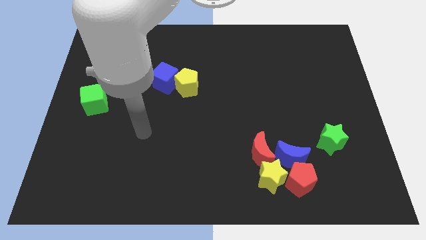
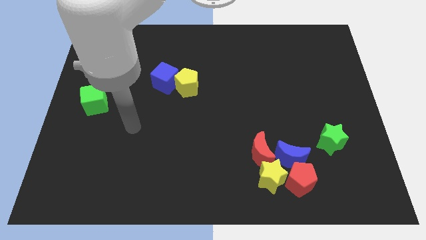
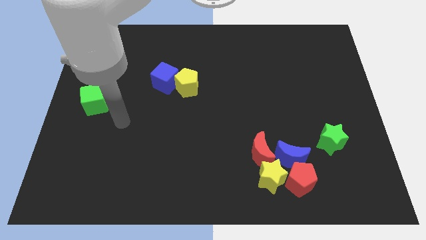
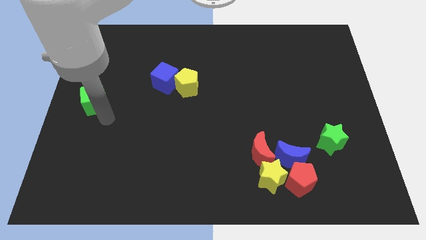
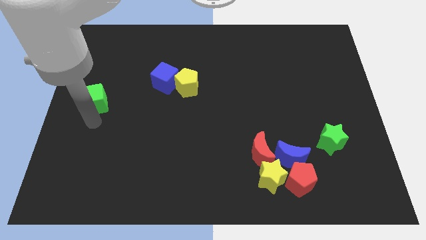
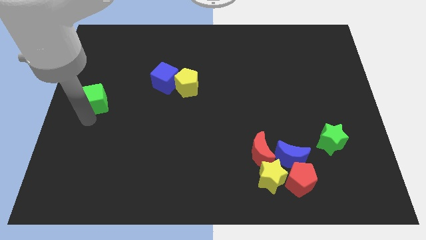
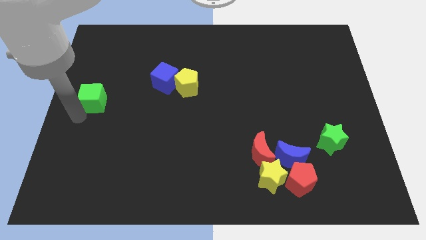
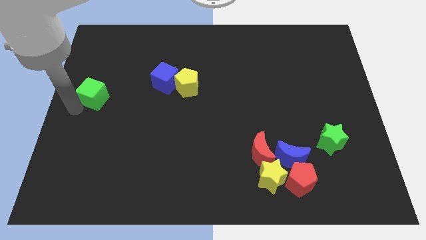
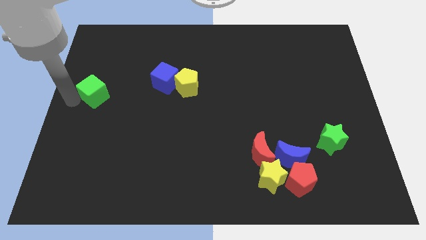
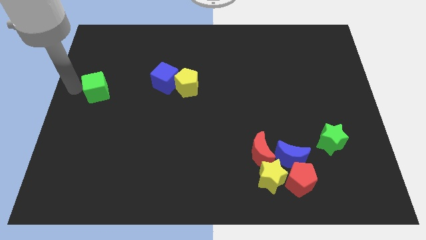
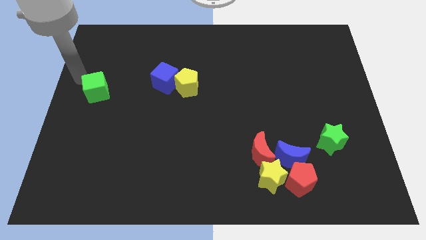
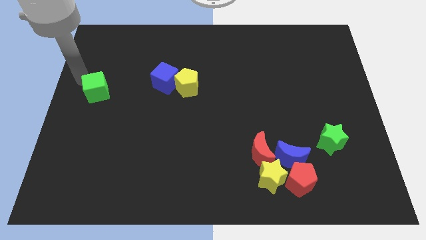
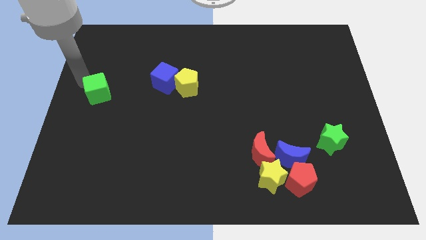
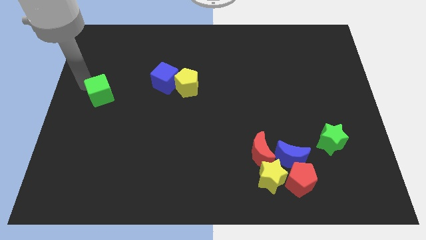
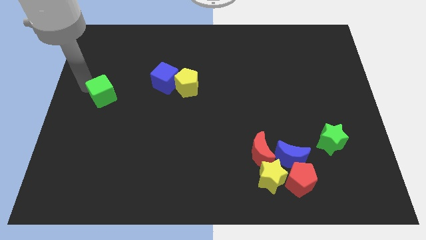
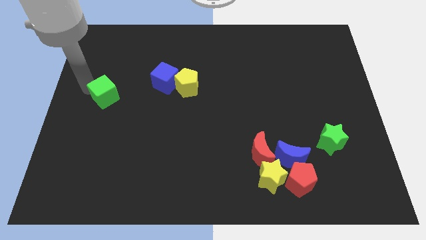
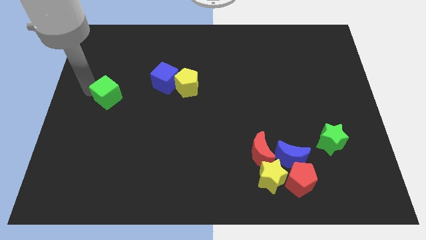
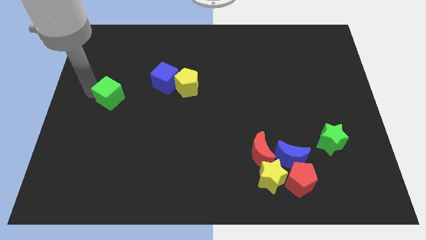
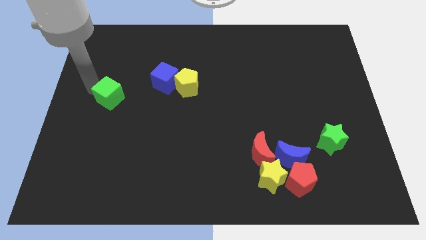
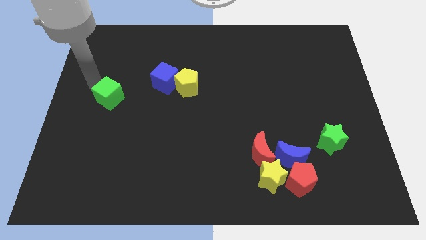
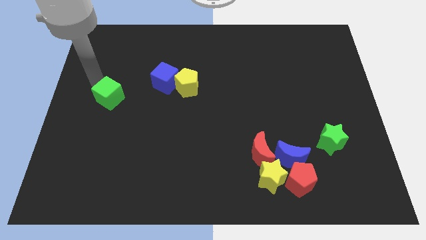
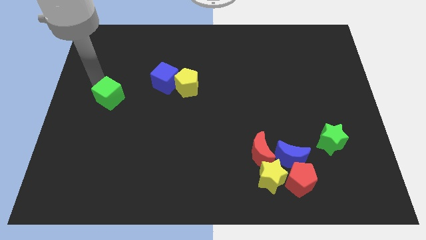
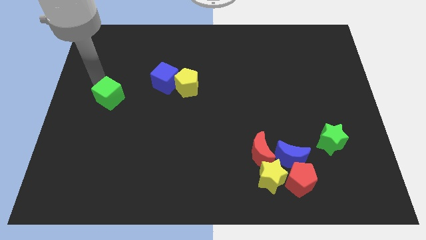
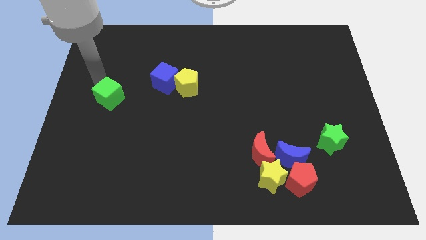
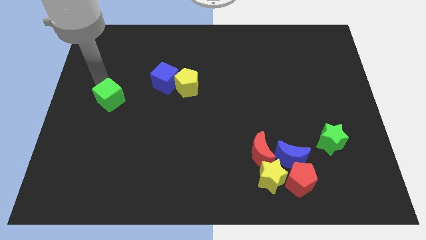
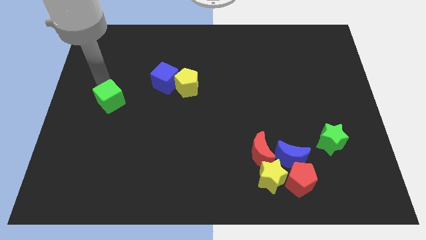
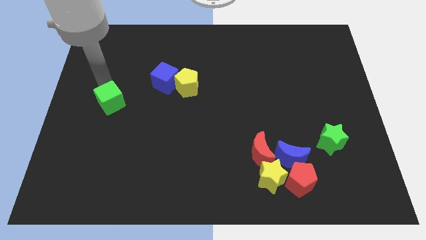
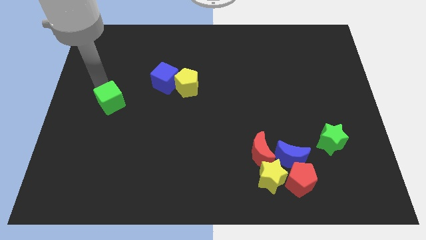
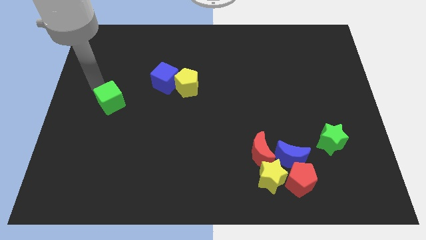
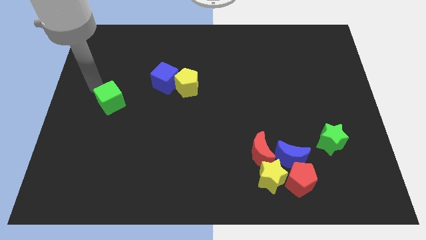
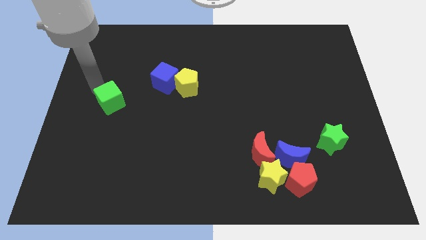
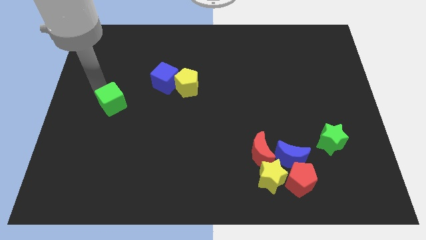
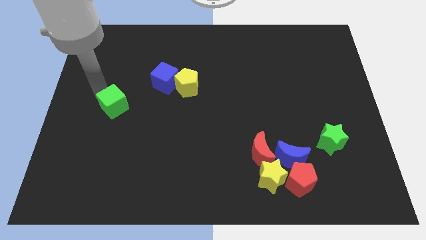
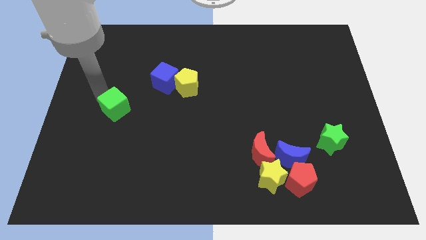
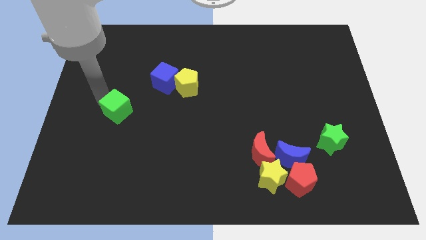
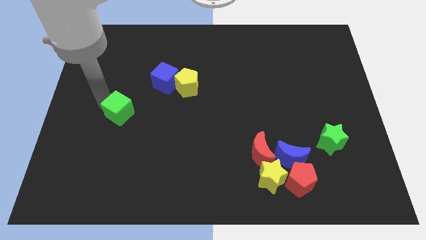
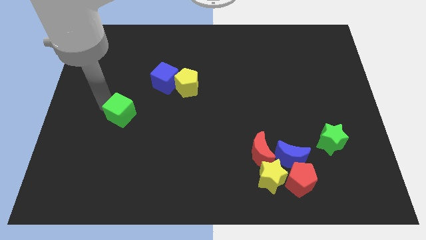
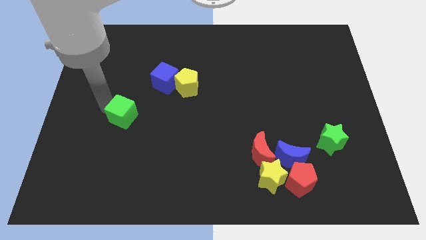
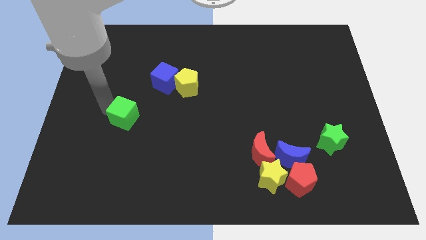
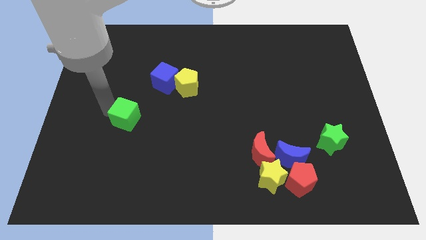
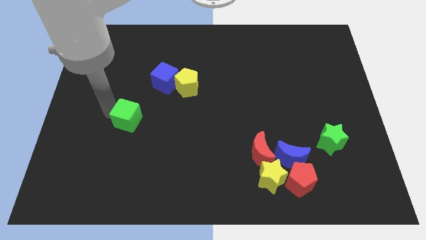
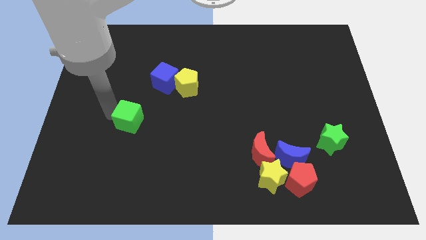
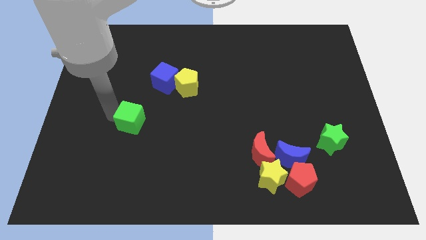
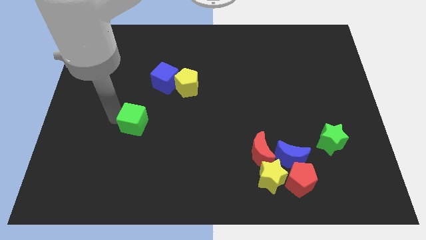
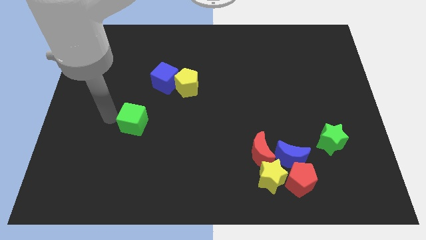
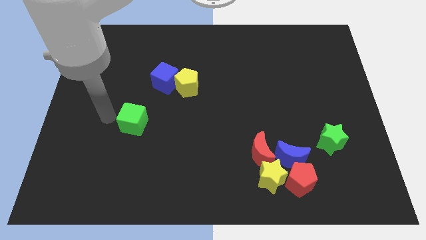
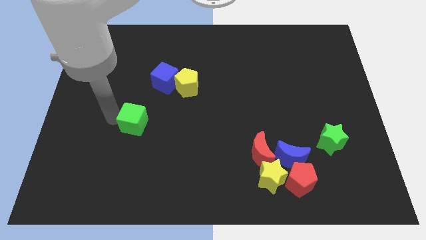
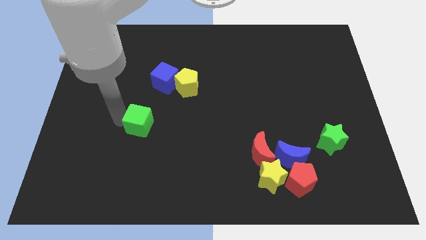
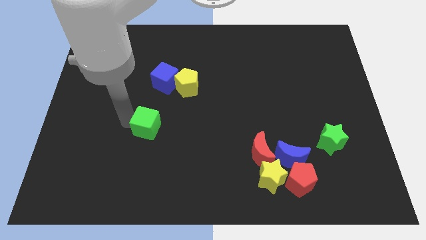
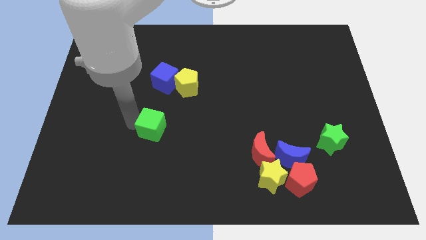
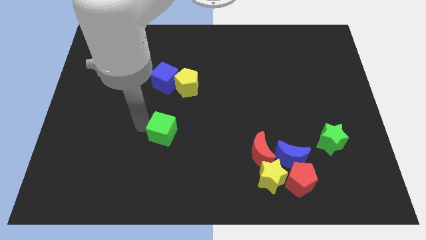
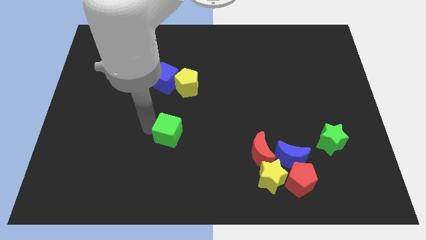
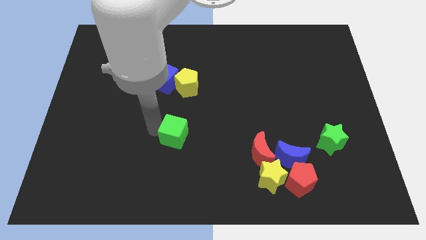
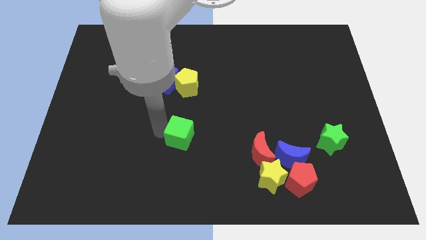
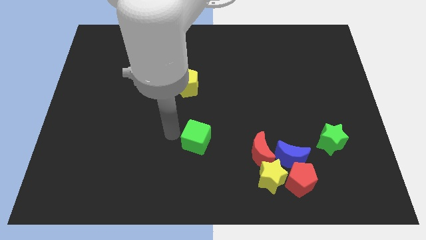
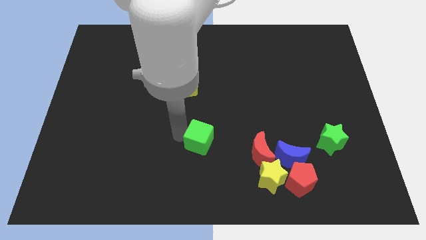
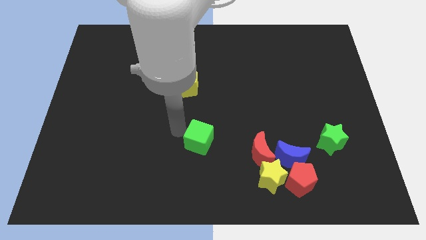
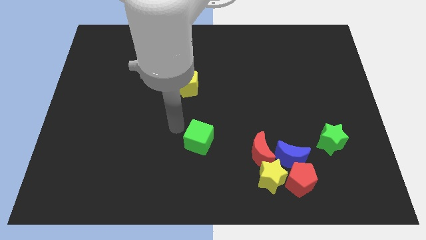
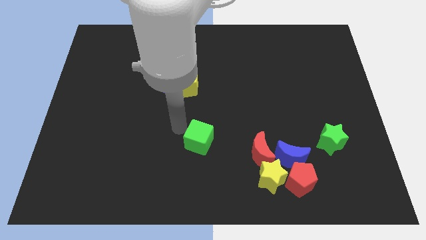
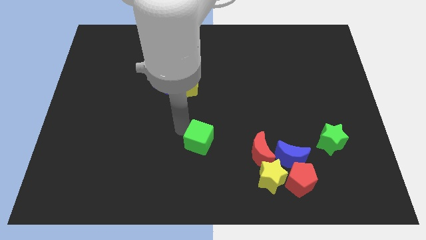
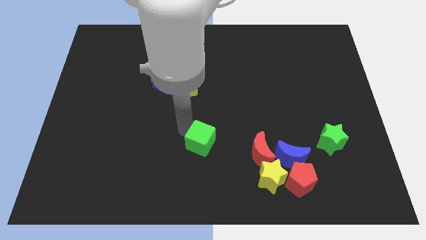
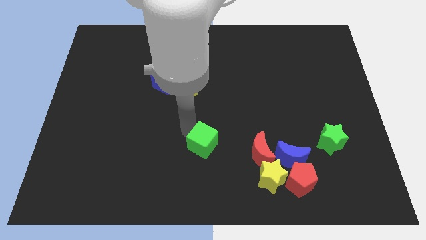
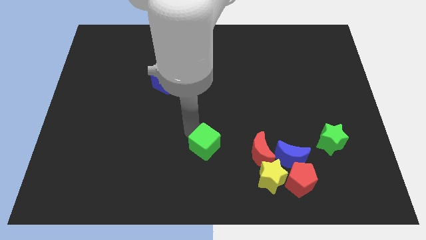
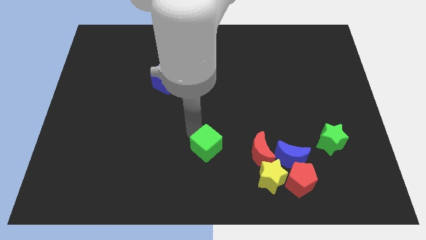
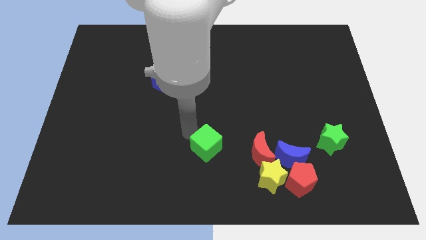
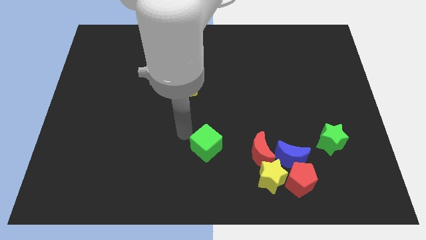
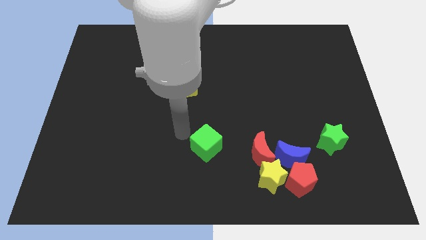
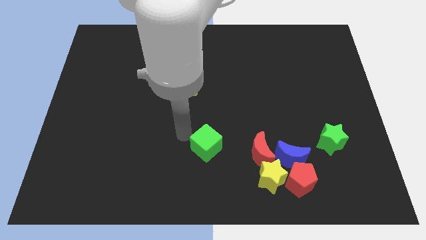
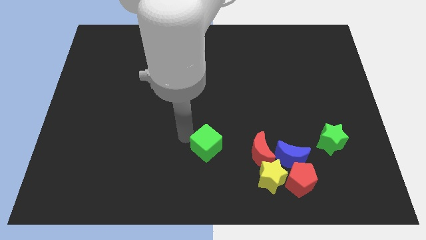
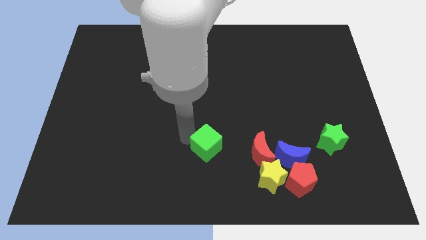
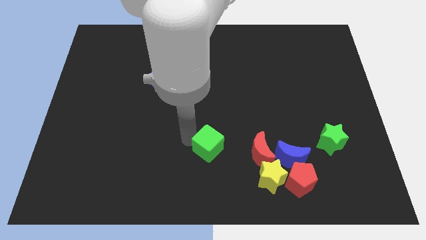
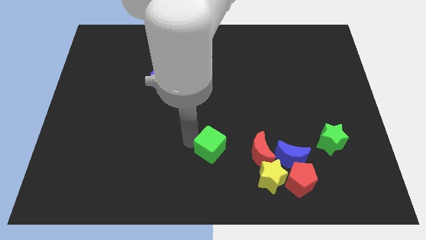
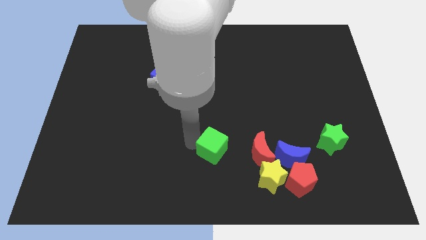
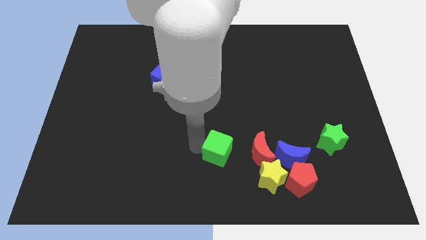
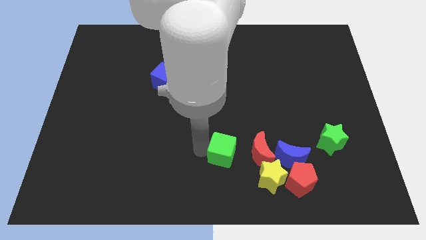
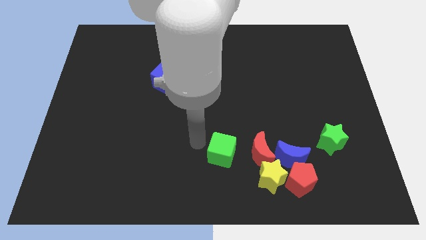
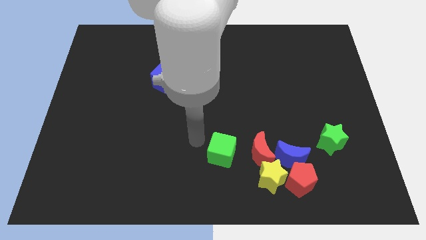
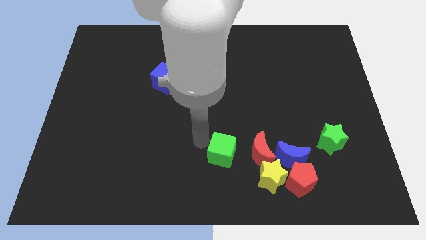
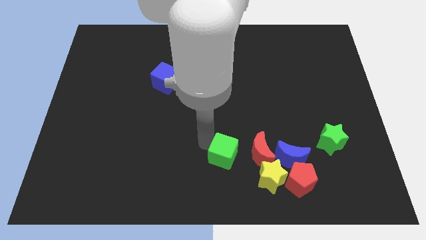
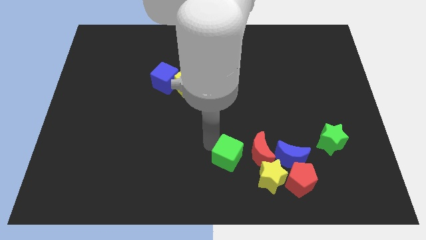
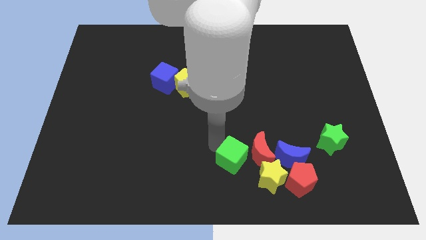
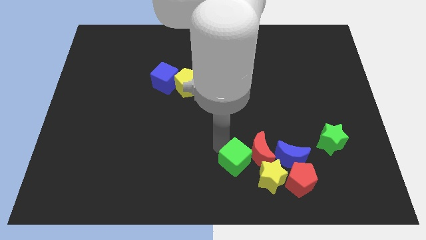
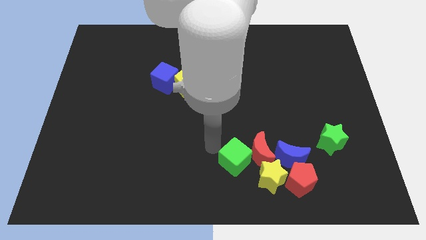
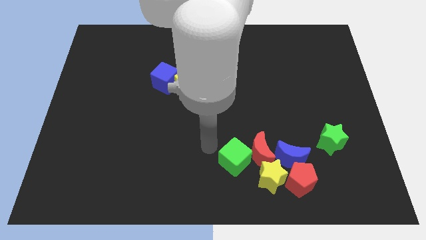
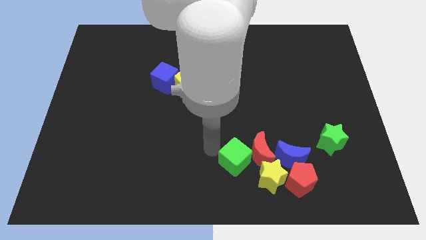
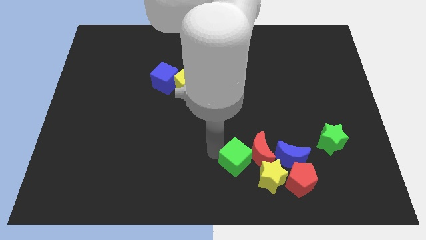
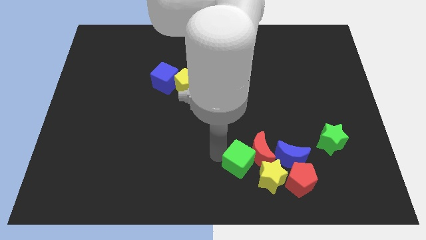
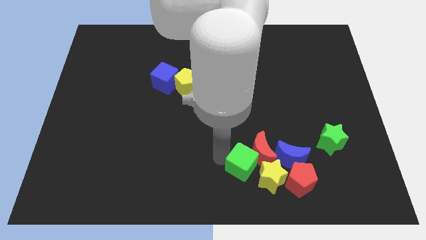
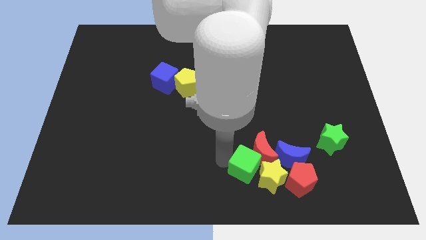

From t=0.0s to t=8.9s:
put the green cube close to the yellow star
